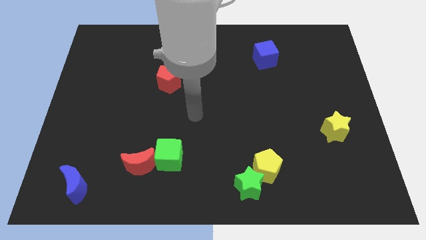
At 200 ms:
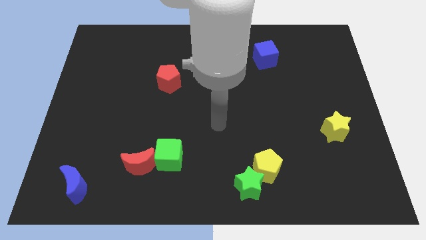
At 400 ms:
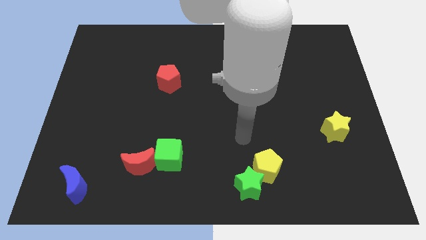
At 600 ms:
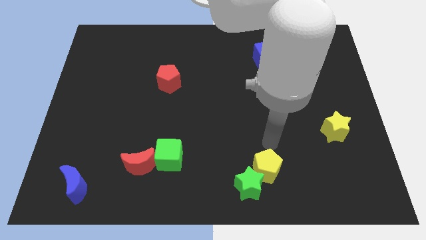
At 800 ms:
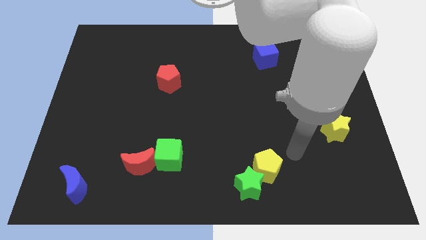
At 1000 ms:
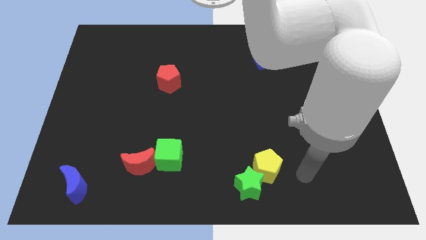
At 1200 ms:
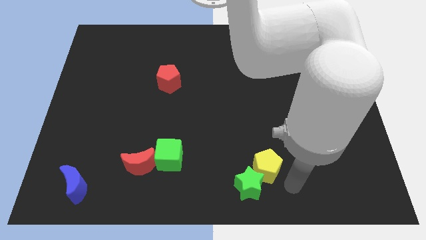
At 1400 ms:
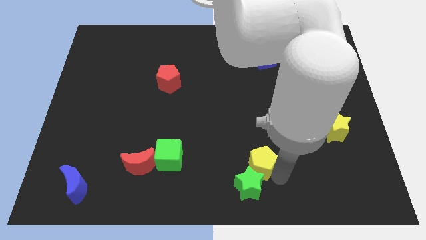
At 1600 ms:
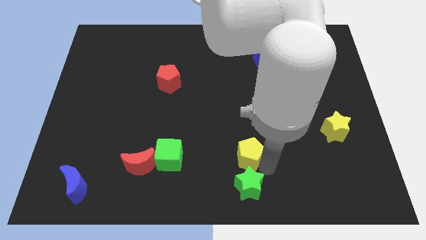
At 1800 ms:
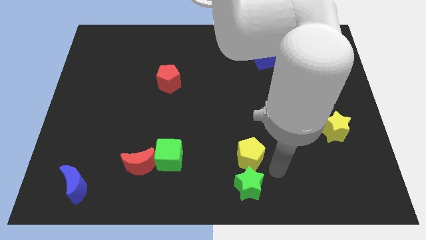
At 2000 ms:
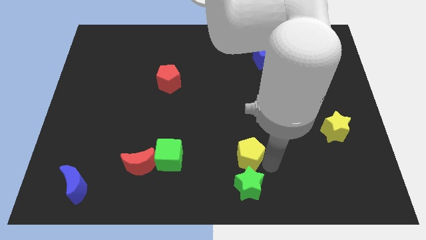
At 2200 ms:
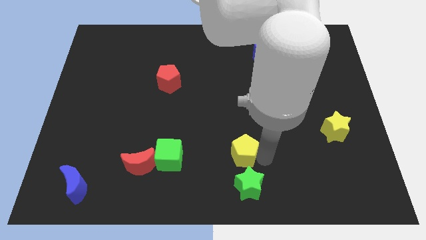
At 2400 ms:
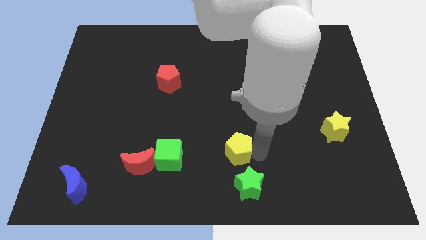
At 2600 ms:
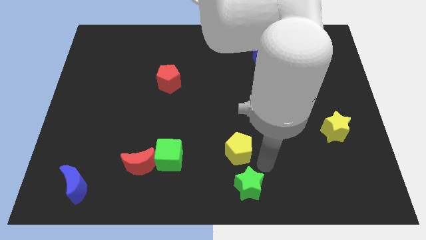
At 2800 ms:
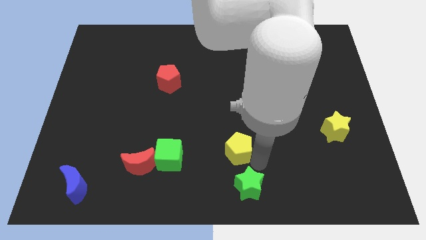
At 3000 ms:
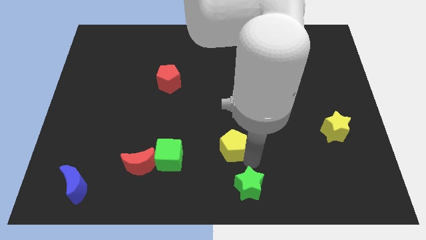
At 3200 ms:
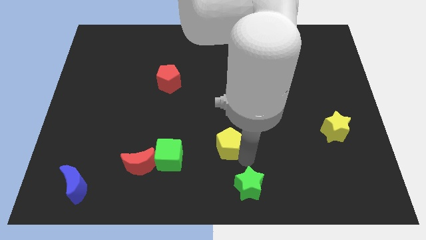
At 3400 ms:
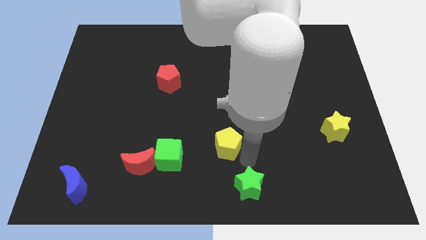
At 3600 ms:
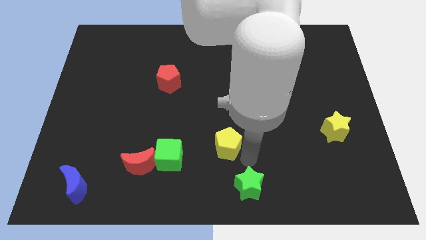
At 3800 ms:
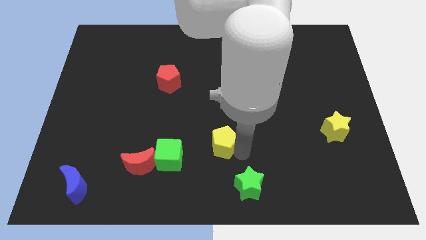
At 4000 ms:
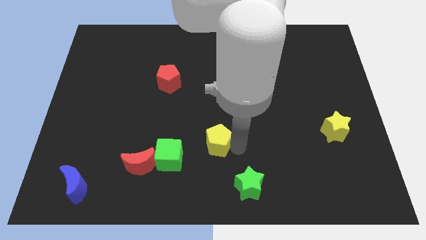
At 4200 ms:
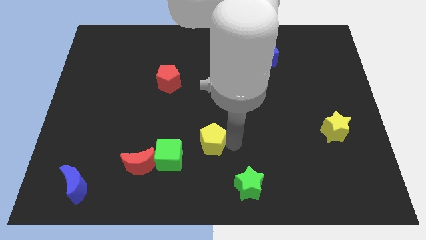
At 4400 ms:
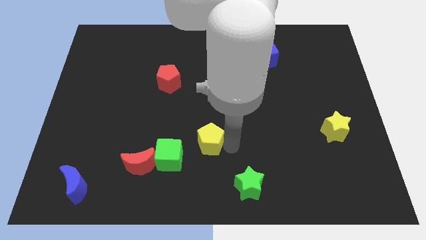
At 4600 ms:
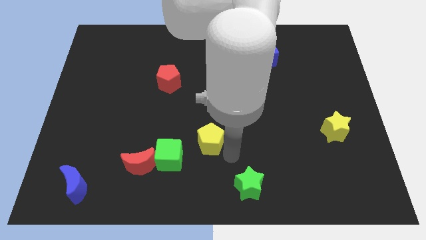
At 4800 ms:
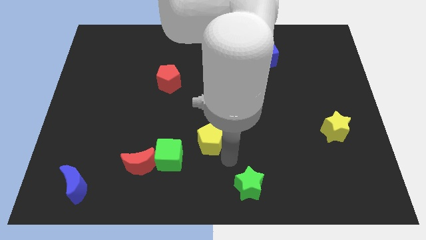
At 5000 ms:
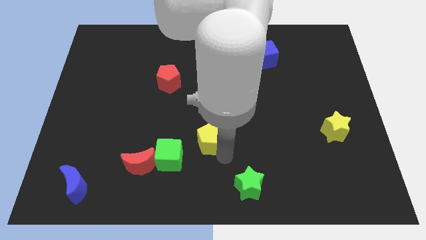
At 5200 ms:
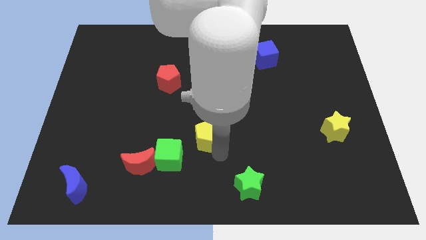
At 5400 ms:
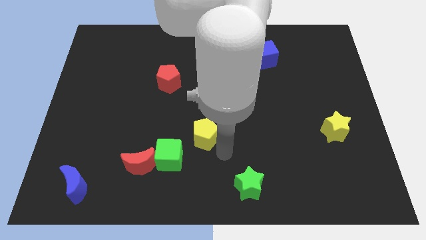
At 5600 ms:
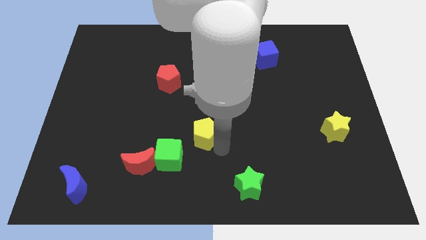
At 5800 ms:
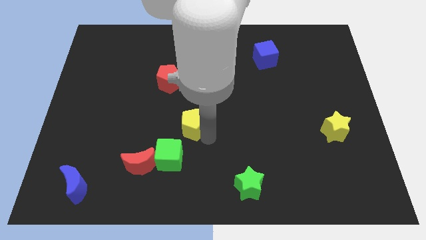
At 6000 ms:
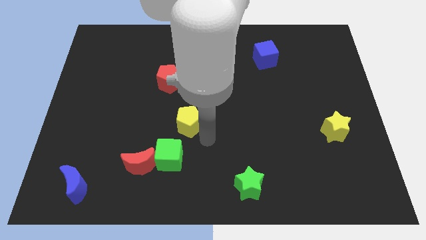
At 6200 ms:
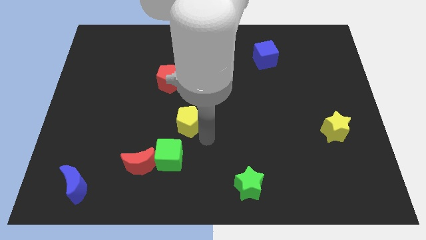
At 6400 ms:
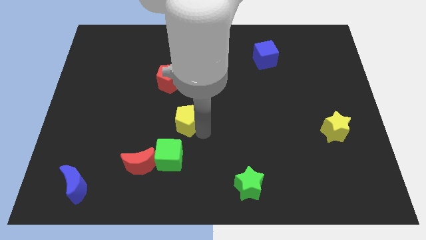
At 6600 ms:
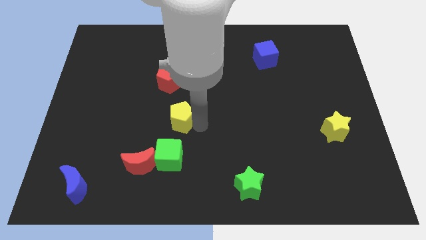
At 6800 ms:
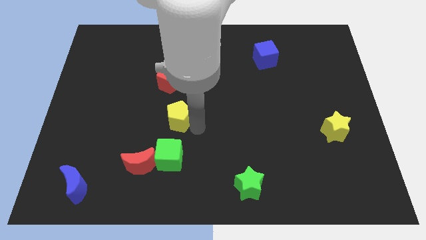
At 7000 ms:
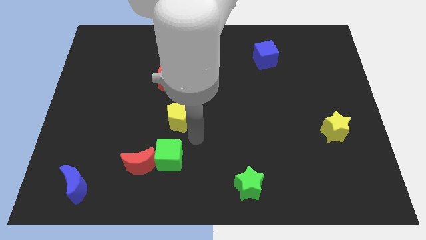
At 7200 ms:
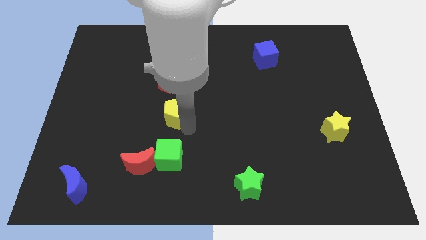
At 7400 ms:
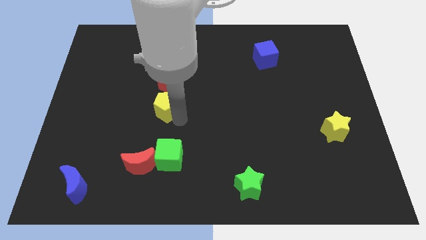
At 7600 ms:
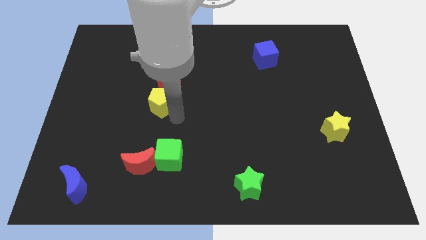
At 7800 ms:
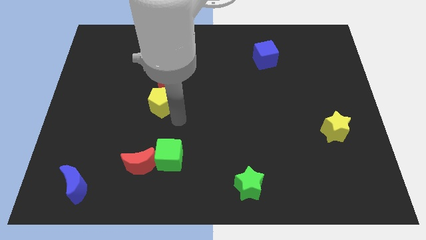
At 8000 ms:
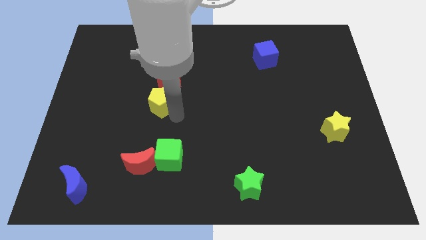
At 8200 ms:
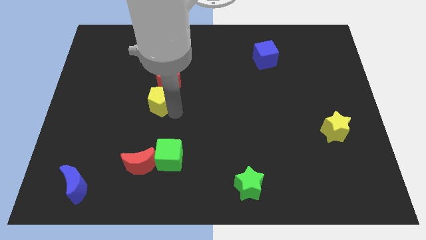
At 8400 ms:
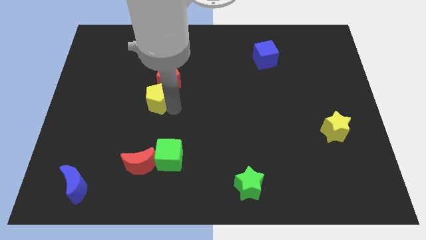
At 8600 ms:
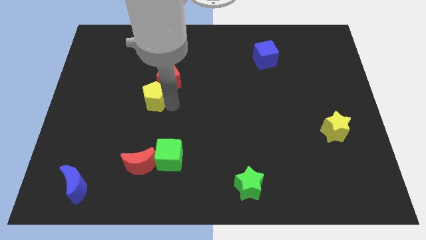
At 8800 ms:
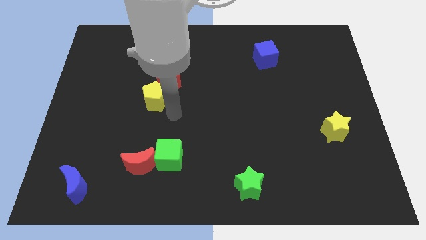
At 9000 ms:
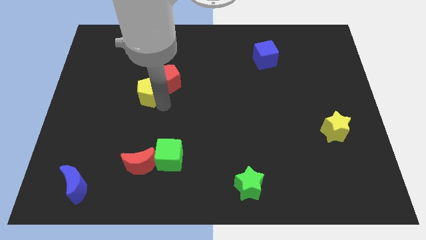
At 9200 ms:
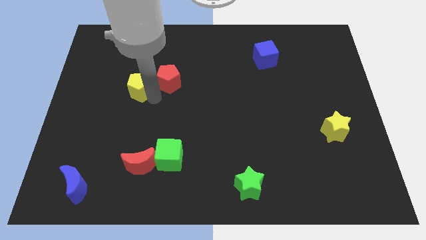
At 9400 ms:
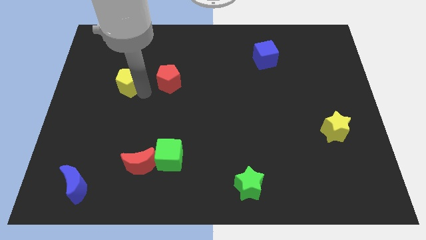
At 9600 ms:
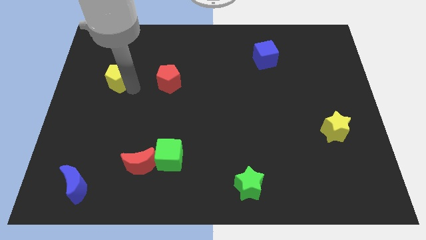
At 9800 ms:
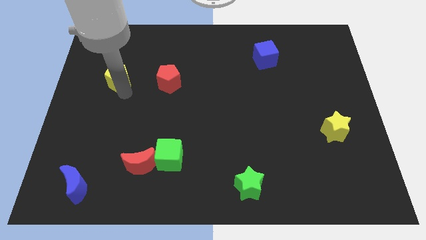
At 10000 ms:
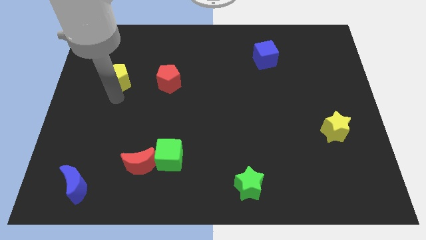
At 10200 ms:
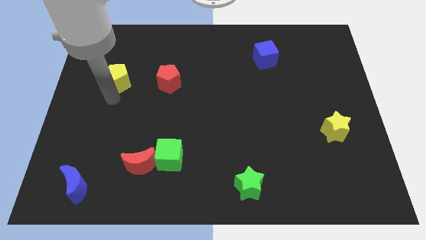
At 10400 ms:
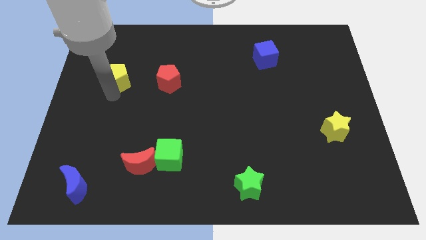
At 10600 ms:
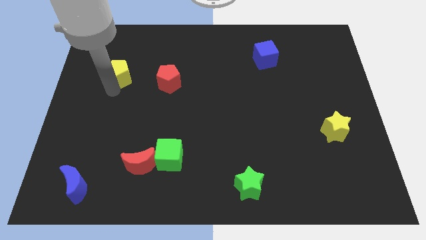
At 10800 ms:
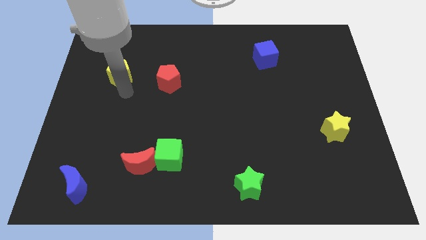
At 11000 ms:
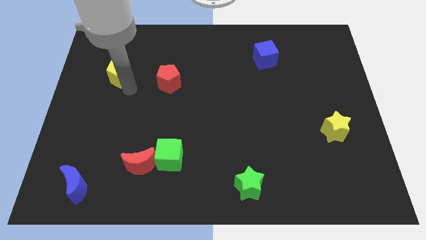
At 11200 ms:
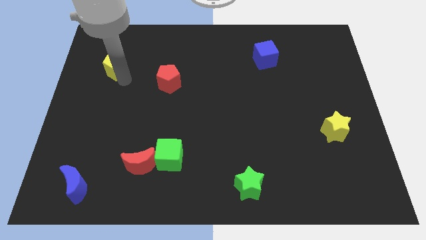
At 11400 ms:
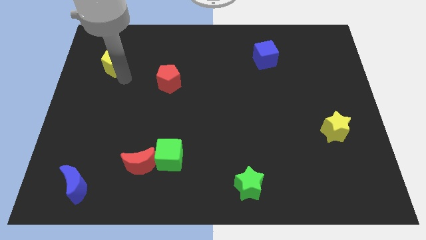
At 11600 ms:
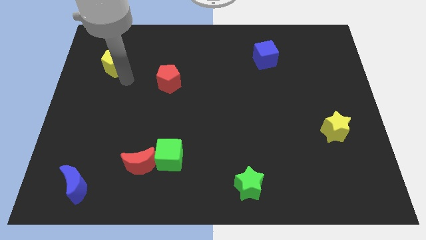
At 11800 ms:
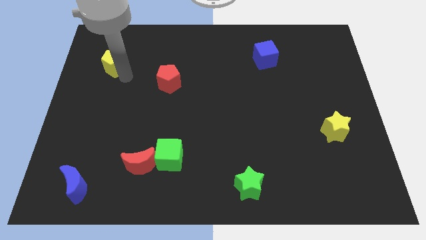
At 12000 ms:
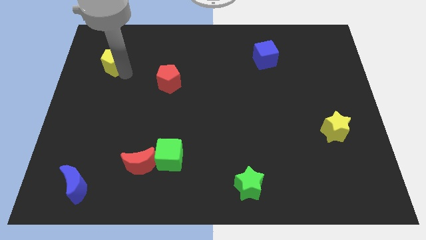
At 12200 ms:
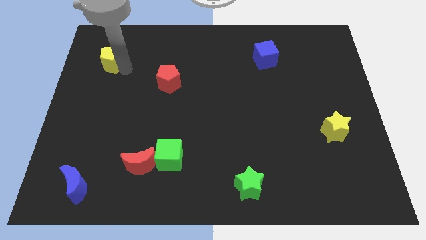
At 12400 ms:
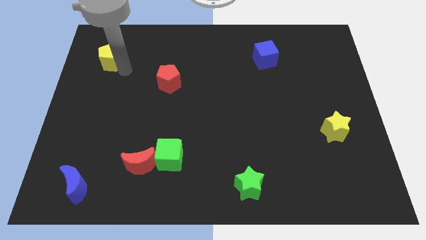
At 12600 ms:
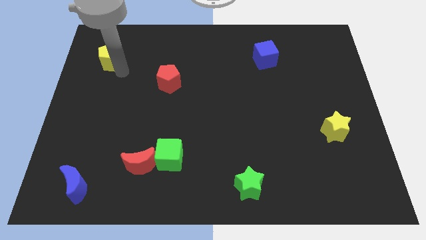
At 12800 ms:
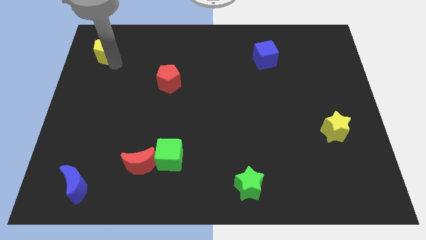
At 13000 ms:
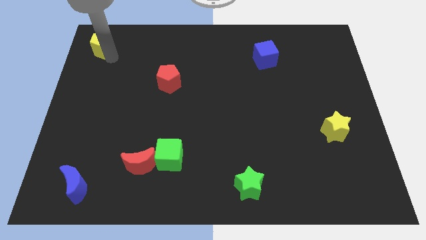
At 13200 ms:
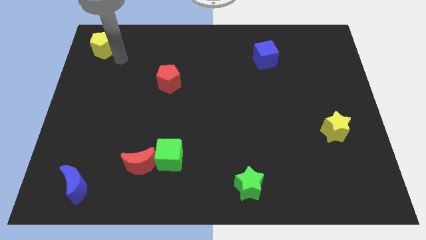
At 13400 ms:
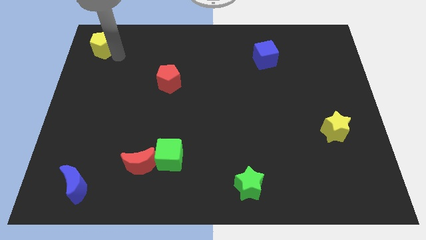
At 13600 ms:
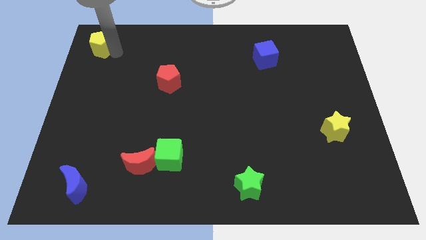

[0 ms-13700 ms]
push the yellow pentagon to the upper left corner
